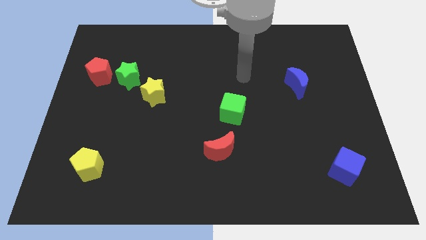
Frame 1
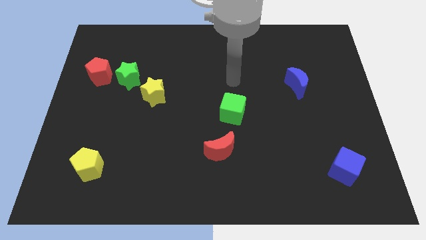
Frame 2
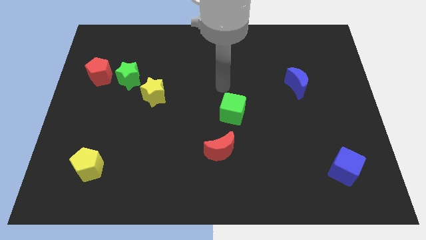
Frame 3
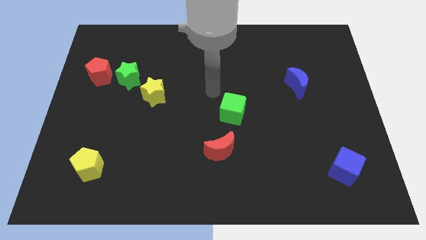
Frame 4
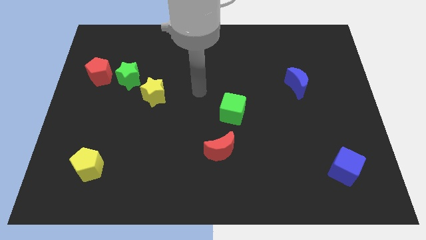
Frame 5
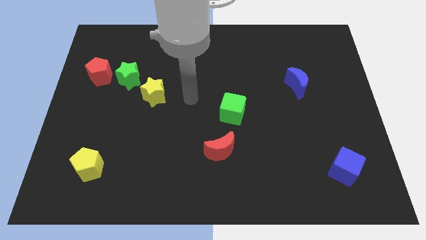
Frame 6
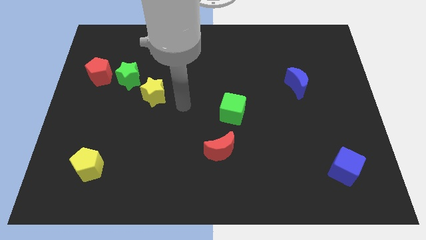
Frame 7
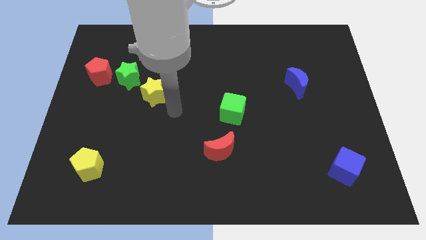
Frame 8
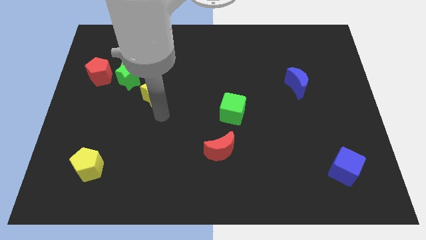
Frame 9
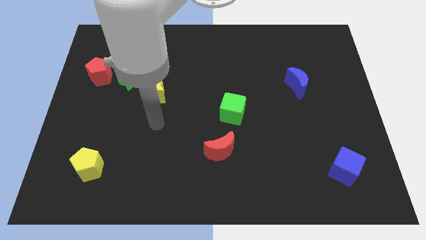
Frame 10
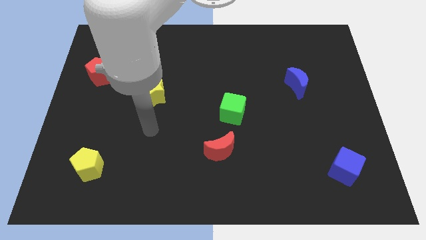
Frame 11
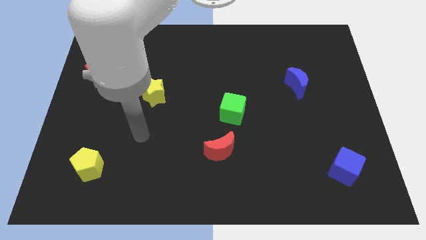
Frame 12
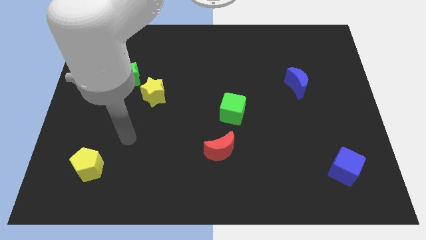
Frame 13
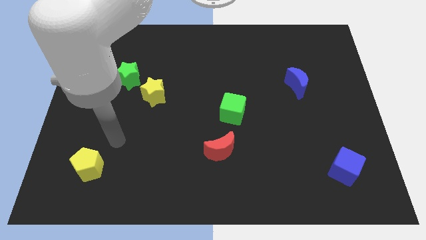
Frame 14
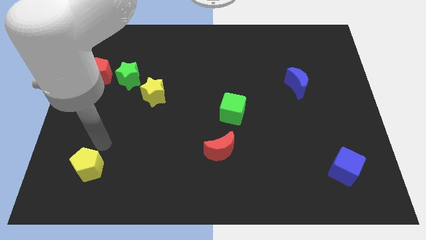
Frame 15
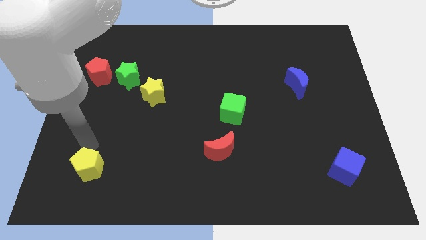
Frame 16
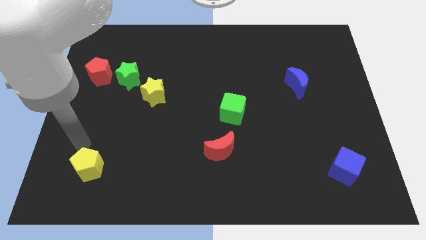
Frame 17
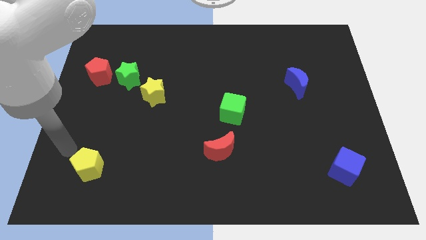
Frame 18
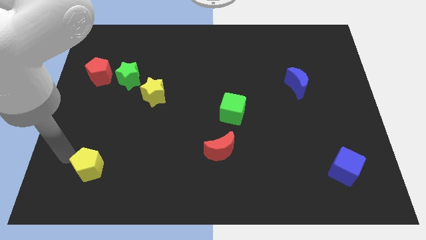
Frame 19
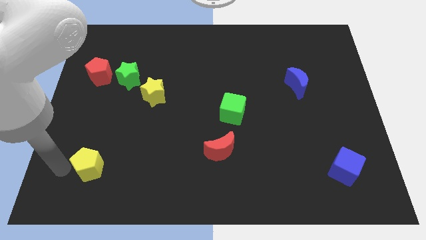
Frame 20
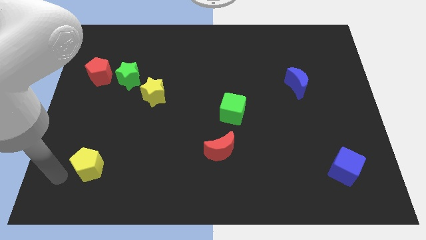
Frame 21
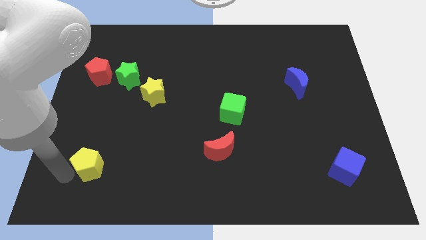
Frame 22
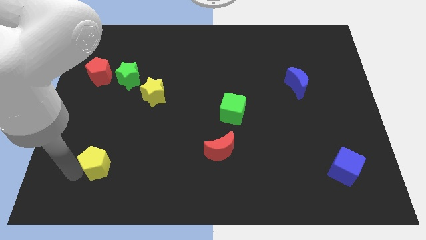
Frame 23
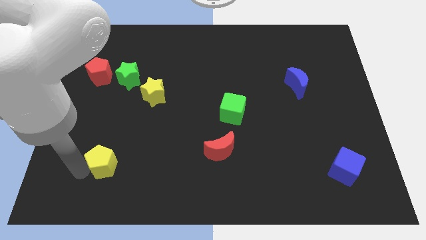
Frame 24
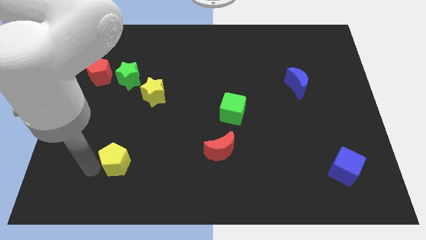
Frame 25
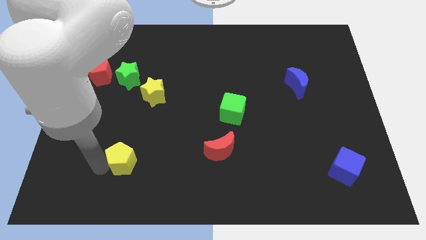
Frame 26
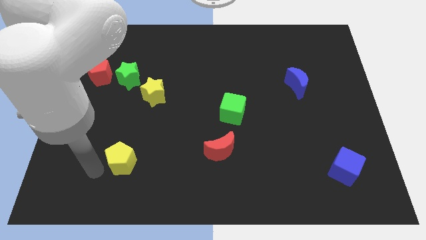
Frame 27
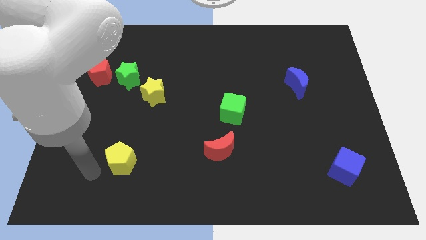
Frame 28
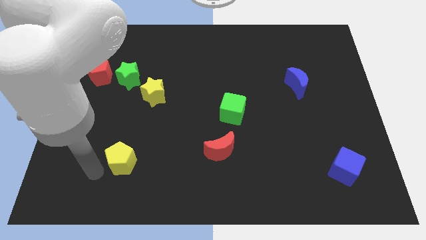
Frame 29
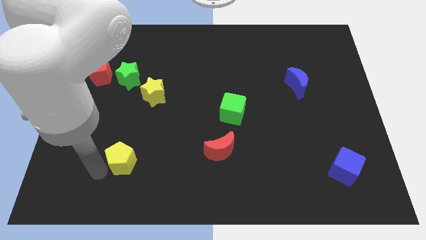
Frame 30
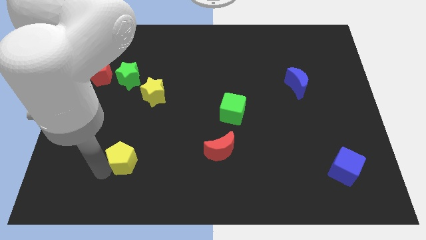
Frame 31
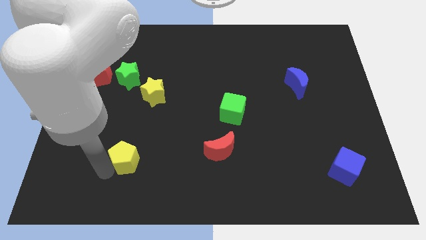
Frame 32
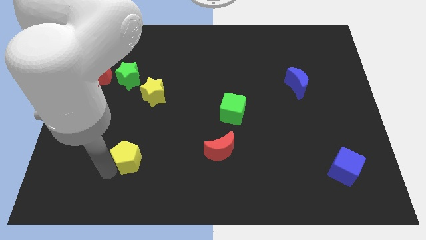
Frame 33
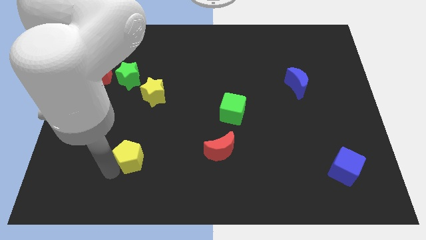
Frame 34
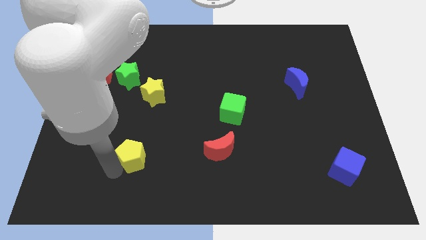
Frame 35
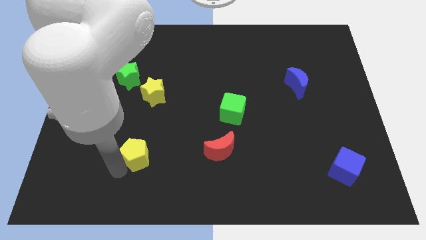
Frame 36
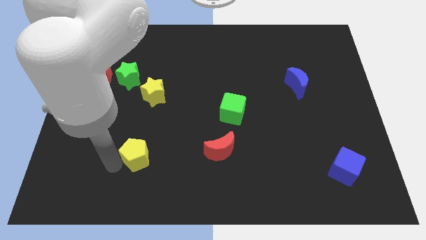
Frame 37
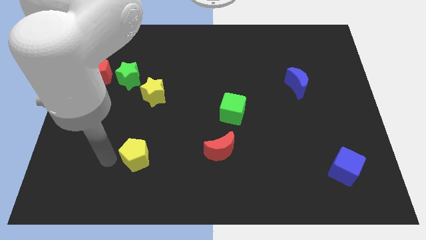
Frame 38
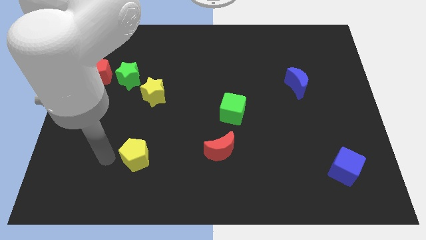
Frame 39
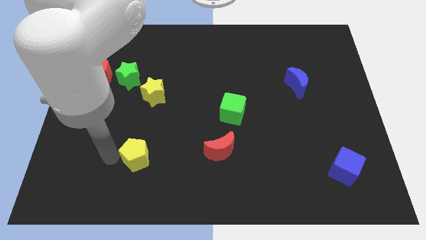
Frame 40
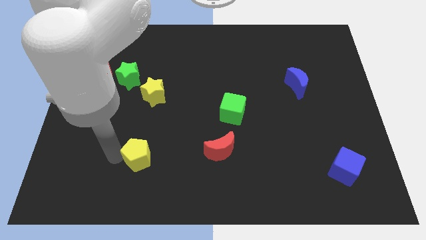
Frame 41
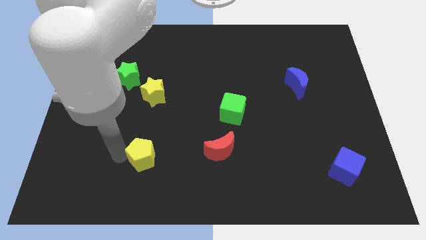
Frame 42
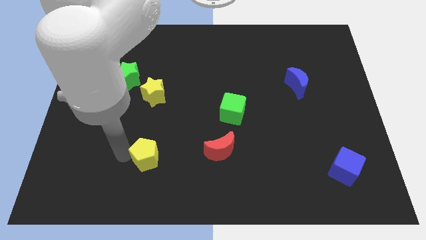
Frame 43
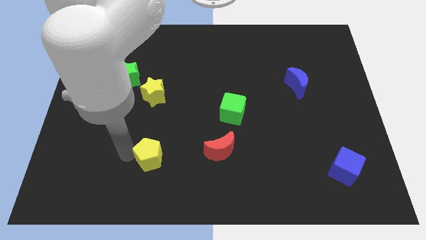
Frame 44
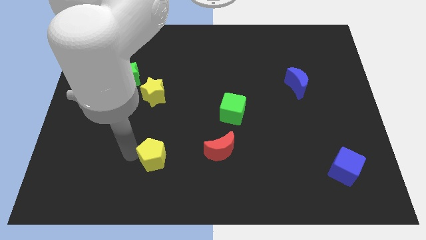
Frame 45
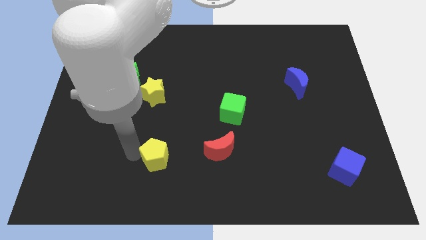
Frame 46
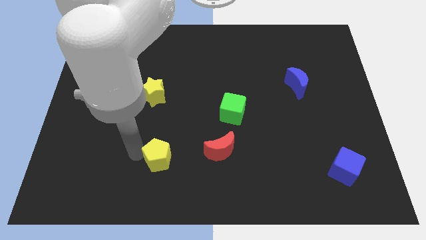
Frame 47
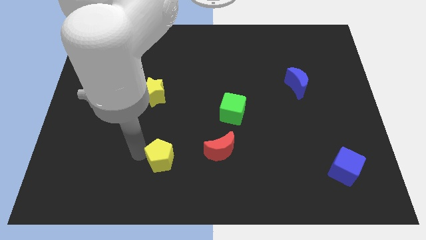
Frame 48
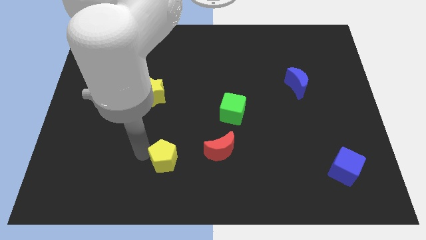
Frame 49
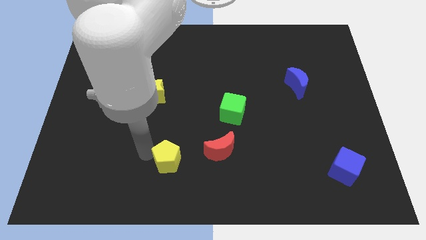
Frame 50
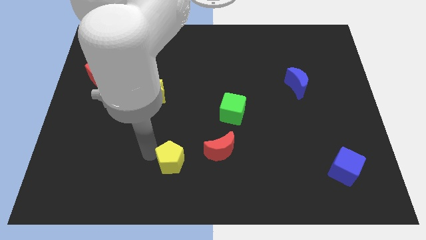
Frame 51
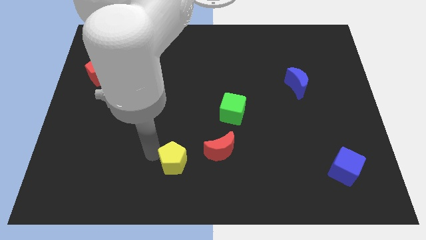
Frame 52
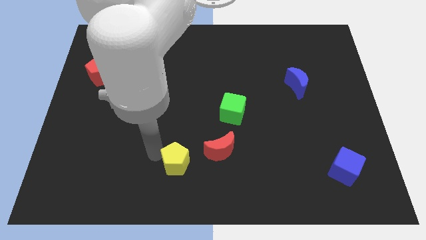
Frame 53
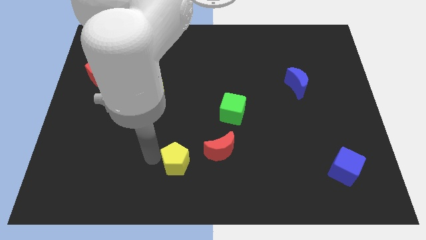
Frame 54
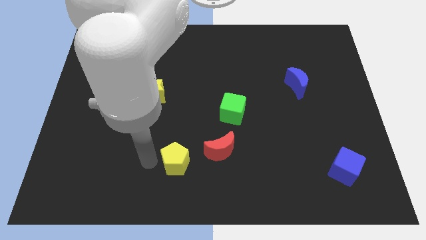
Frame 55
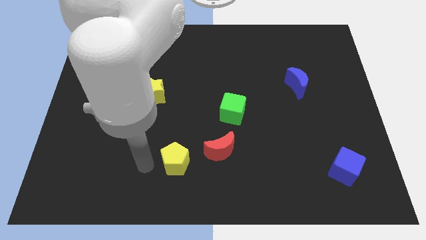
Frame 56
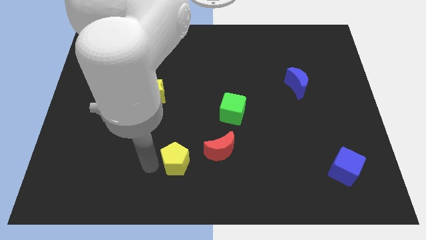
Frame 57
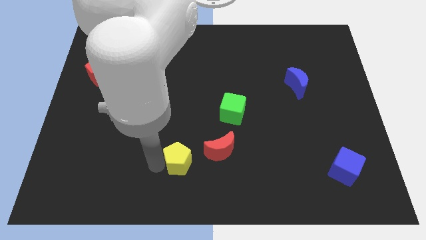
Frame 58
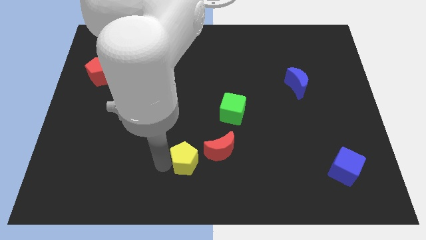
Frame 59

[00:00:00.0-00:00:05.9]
move the yellow pentagon right

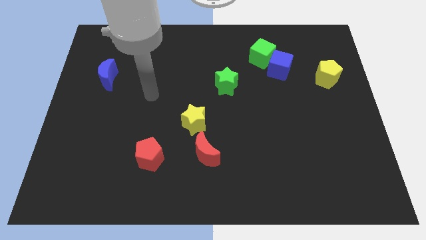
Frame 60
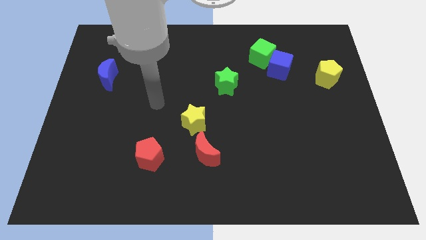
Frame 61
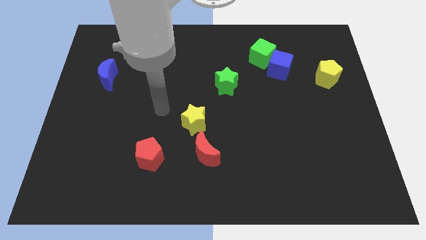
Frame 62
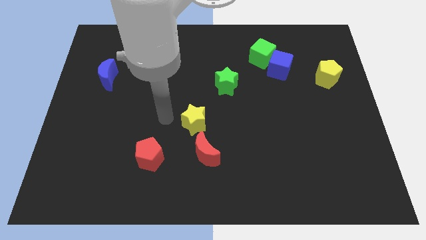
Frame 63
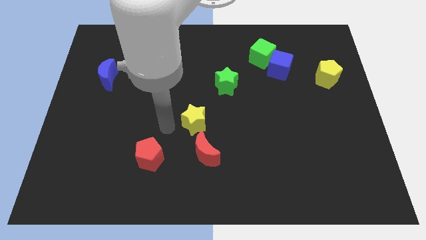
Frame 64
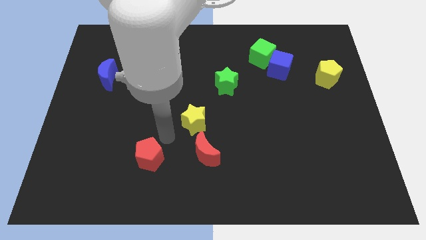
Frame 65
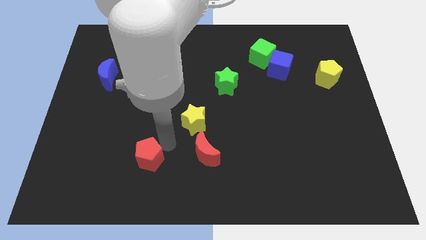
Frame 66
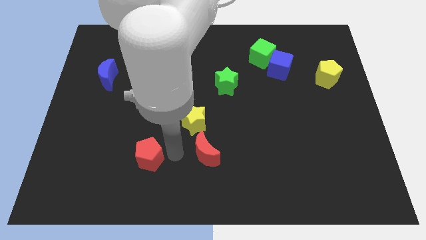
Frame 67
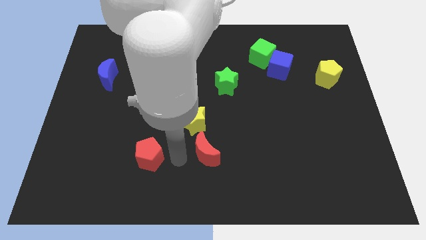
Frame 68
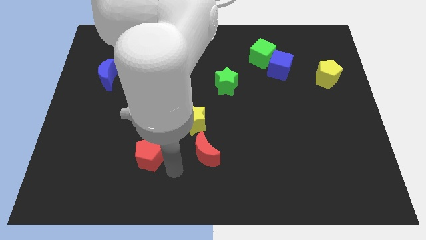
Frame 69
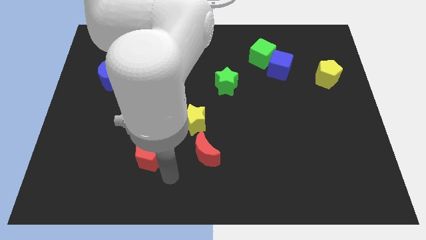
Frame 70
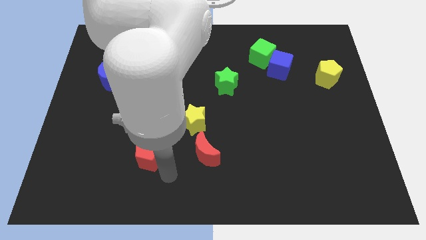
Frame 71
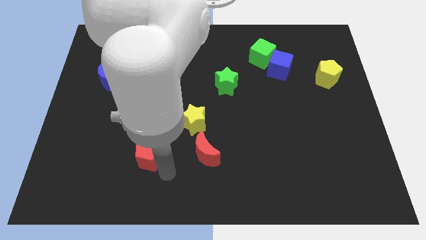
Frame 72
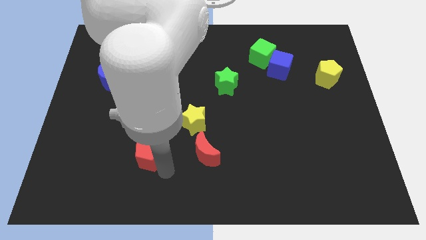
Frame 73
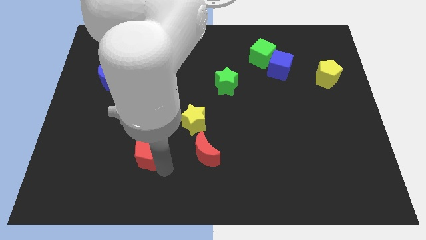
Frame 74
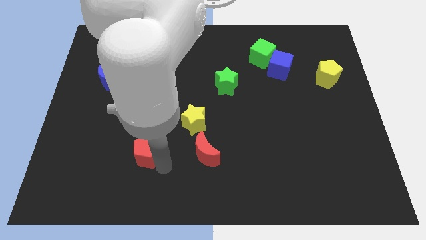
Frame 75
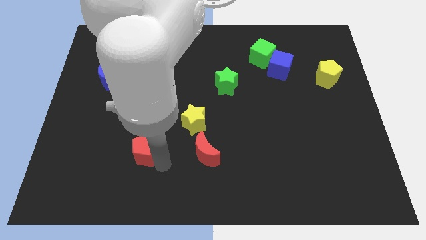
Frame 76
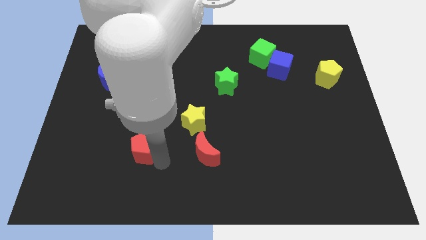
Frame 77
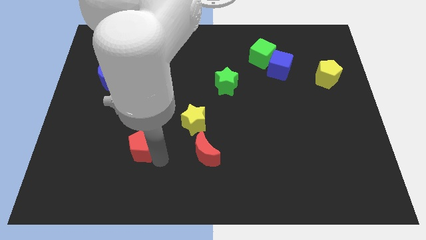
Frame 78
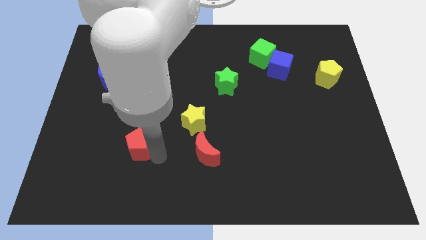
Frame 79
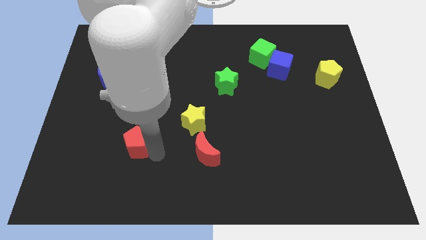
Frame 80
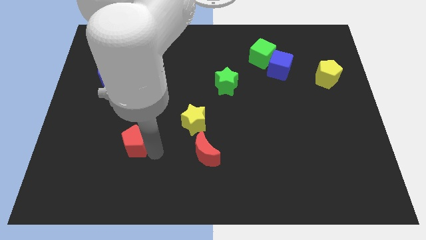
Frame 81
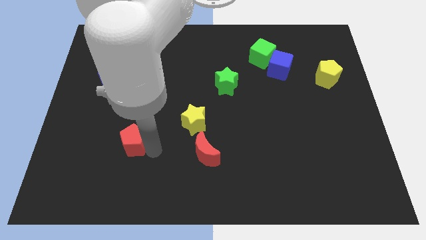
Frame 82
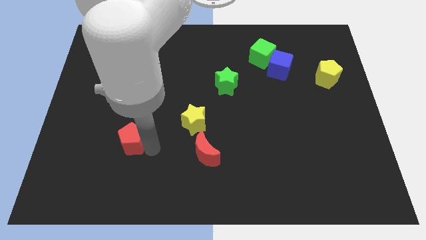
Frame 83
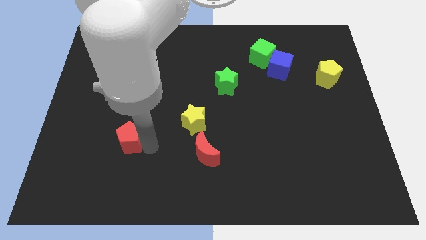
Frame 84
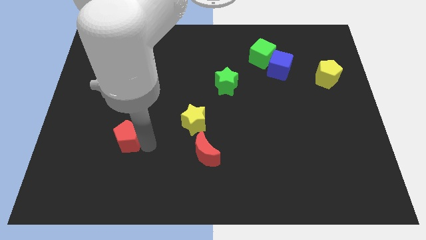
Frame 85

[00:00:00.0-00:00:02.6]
slightly slide the red pentagon upwards and then left
